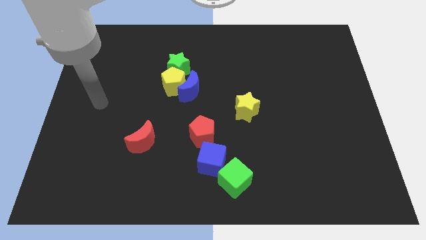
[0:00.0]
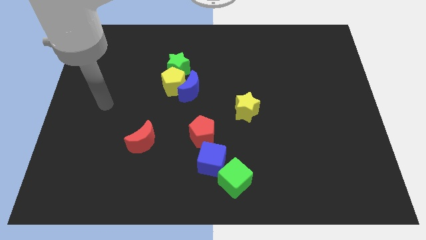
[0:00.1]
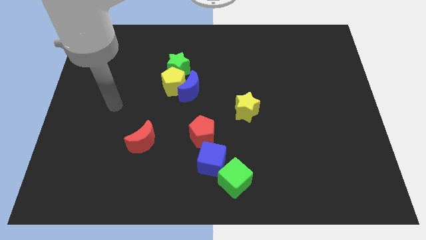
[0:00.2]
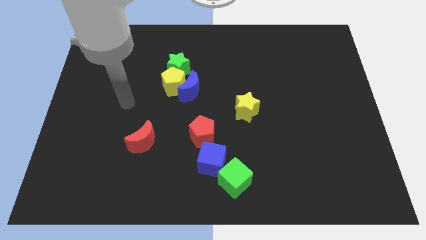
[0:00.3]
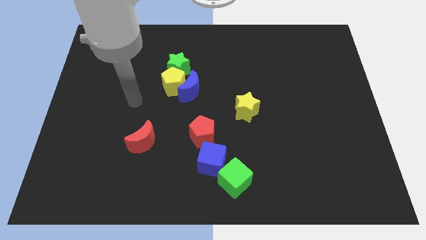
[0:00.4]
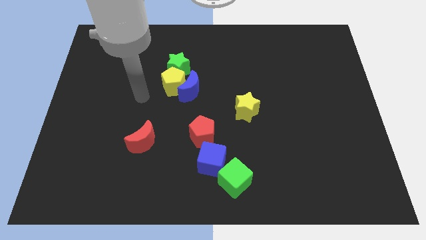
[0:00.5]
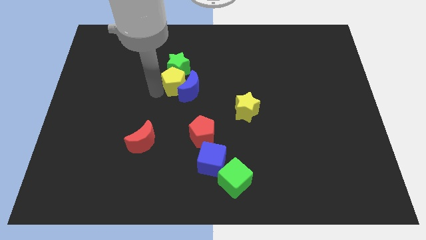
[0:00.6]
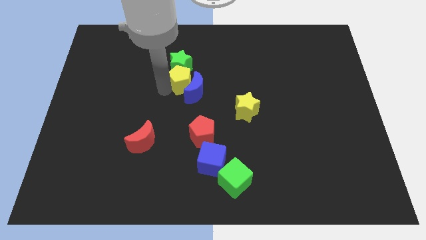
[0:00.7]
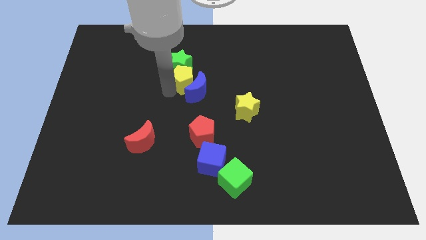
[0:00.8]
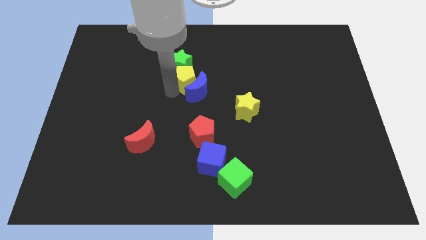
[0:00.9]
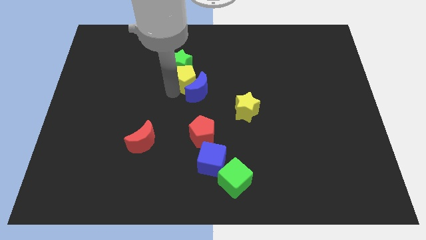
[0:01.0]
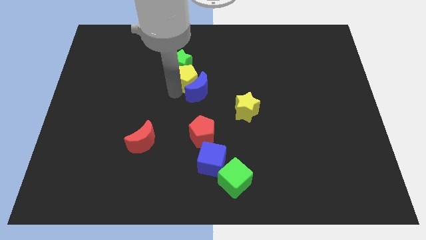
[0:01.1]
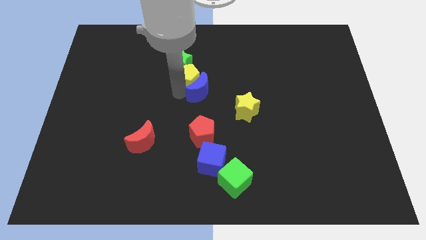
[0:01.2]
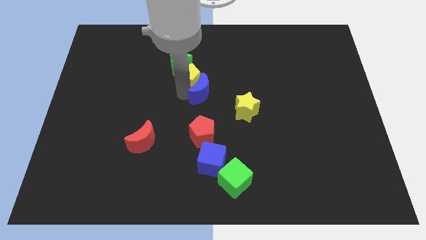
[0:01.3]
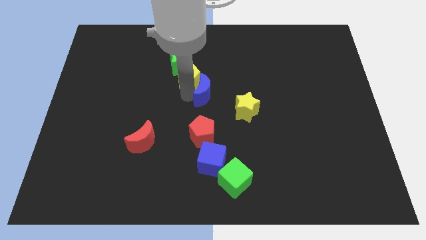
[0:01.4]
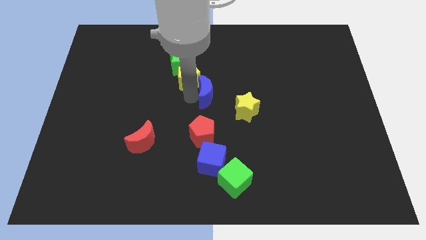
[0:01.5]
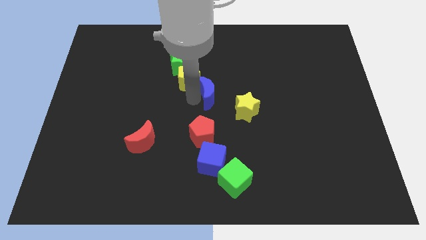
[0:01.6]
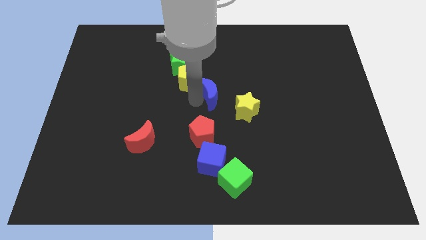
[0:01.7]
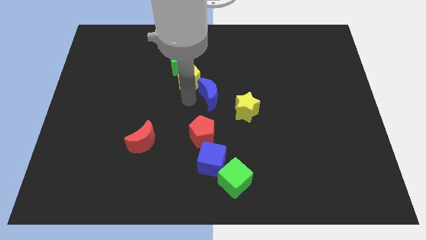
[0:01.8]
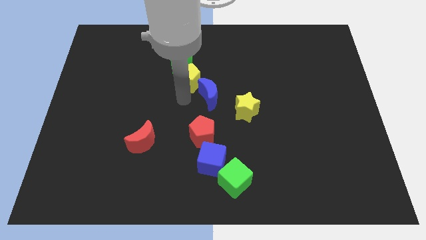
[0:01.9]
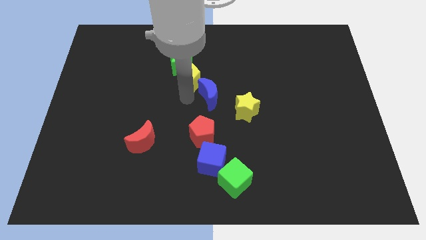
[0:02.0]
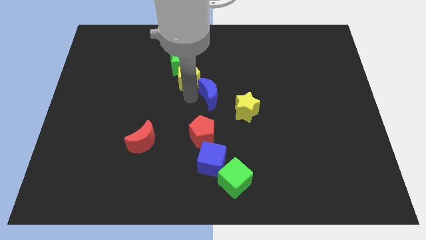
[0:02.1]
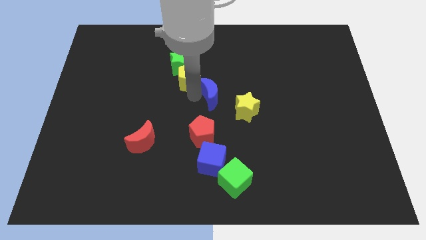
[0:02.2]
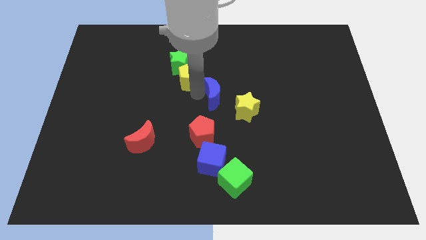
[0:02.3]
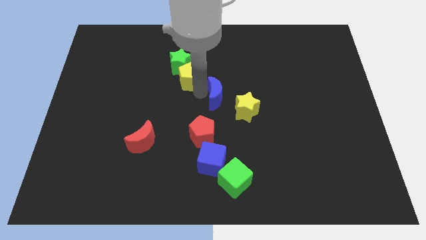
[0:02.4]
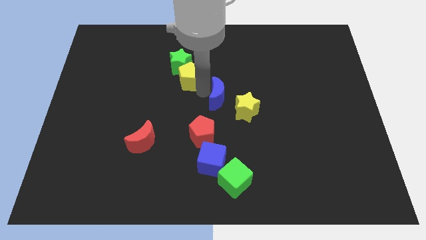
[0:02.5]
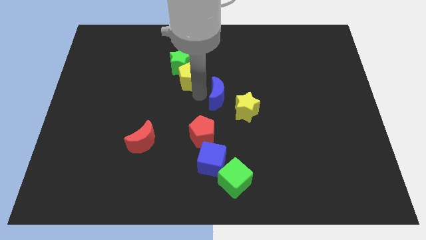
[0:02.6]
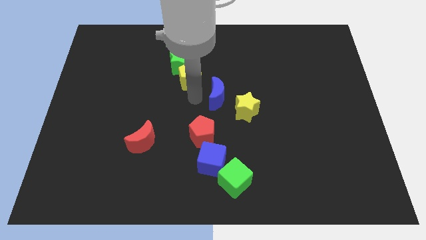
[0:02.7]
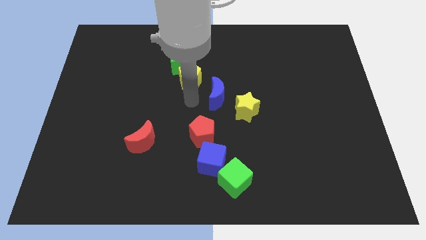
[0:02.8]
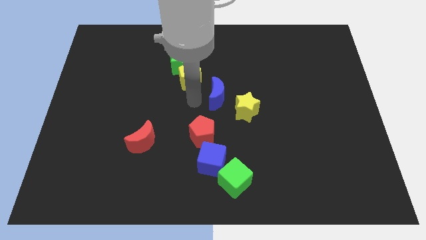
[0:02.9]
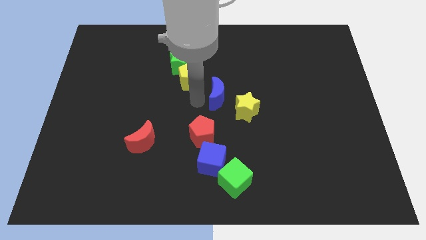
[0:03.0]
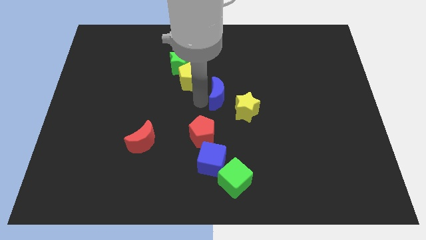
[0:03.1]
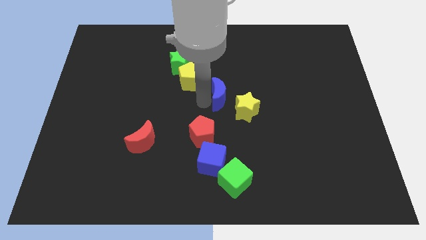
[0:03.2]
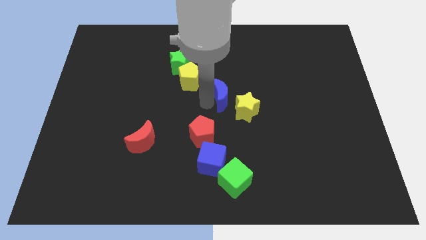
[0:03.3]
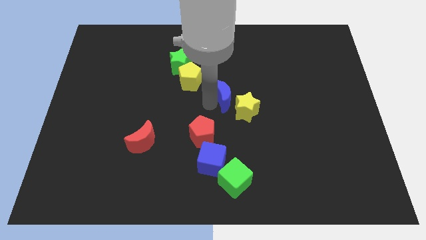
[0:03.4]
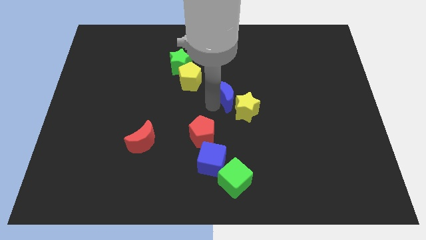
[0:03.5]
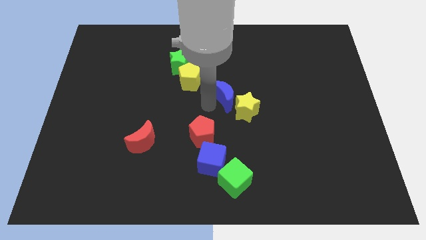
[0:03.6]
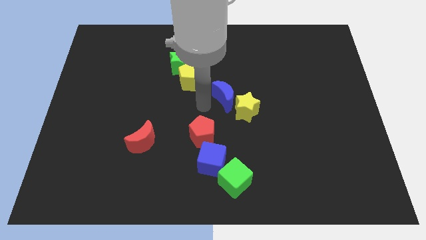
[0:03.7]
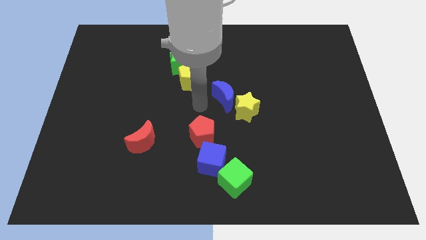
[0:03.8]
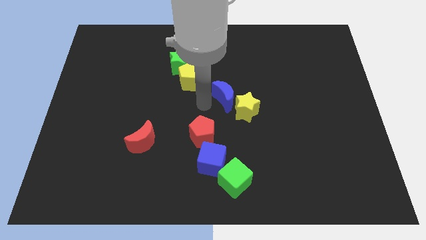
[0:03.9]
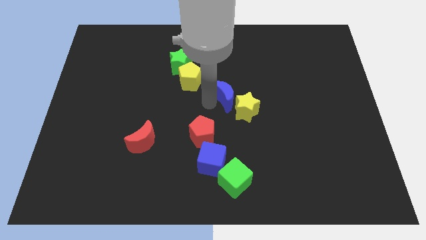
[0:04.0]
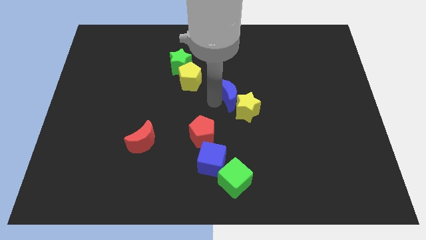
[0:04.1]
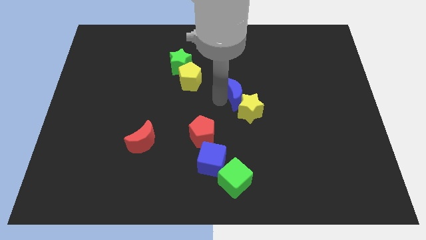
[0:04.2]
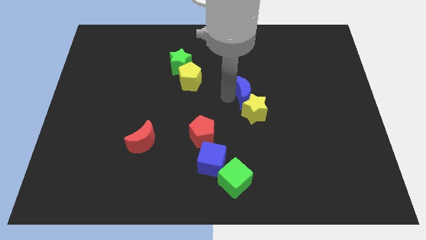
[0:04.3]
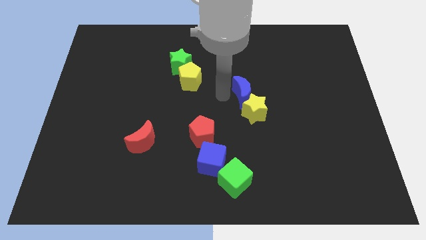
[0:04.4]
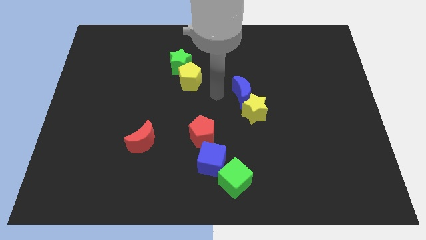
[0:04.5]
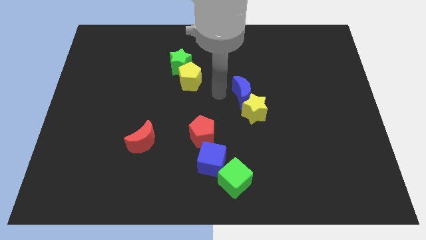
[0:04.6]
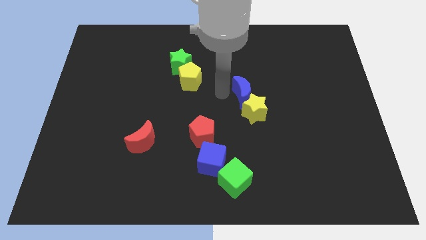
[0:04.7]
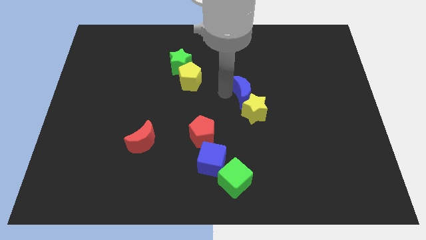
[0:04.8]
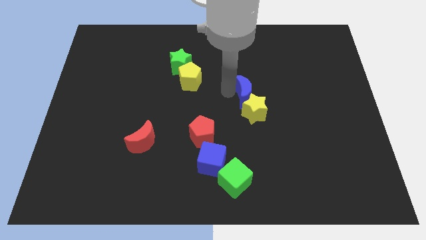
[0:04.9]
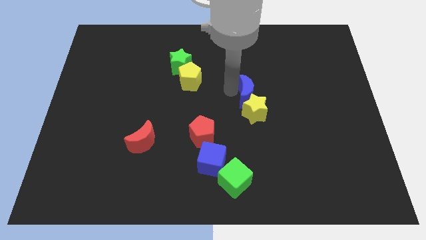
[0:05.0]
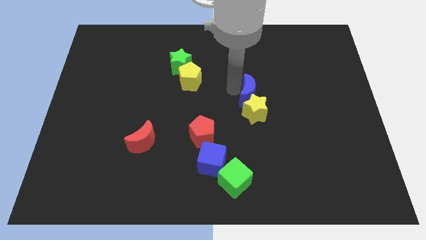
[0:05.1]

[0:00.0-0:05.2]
put the blue moon to the top right side of the yellow star

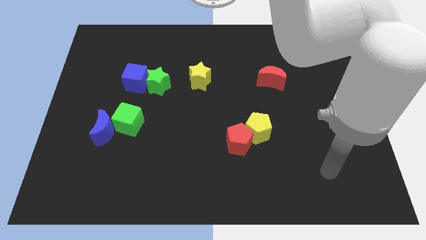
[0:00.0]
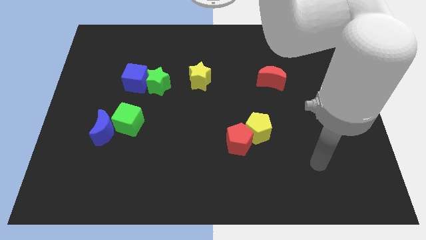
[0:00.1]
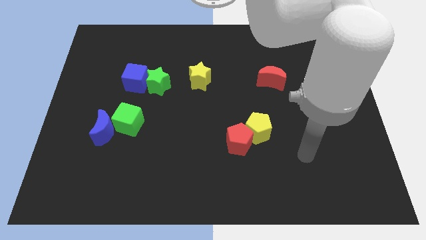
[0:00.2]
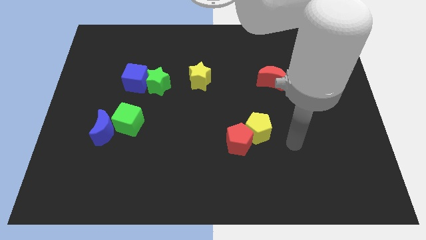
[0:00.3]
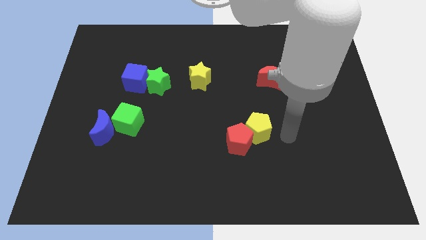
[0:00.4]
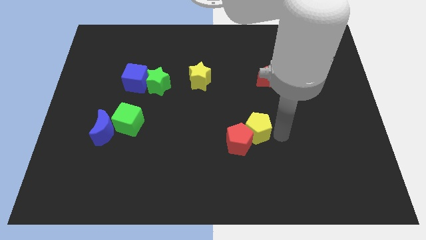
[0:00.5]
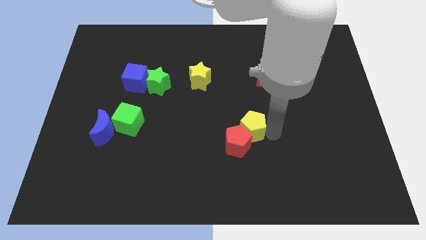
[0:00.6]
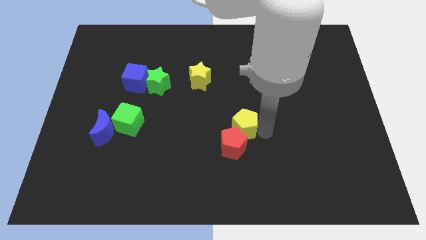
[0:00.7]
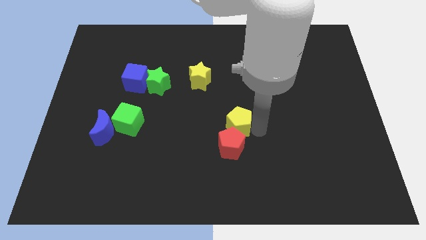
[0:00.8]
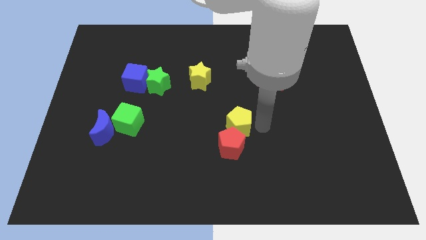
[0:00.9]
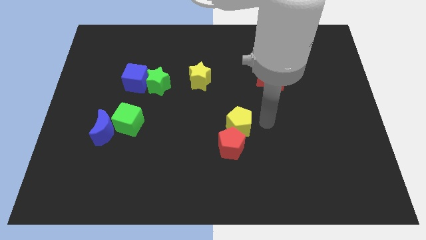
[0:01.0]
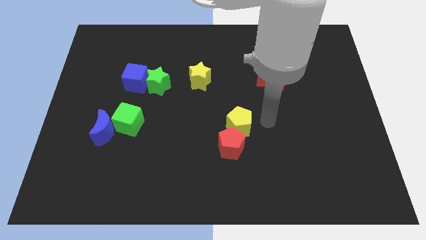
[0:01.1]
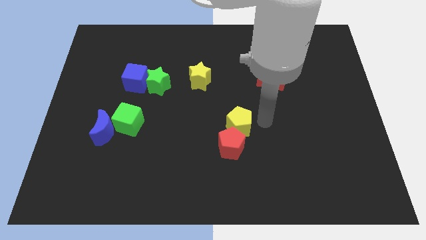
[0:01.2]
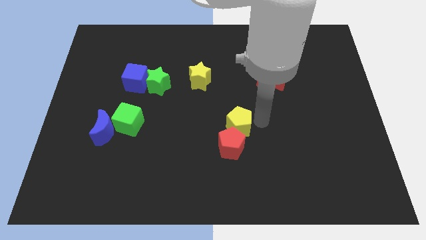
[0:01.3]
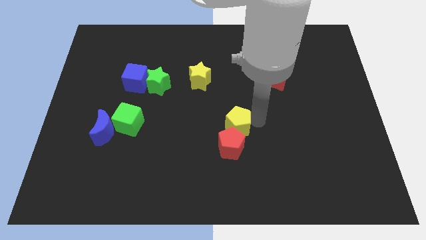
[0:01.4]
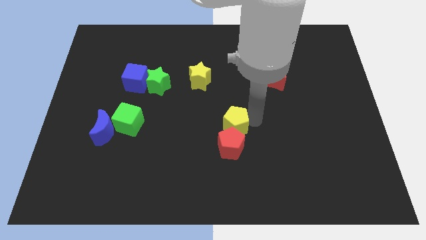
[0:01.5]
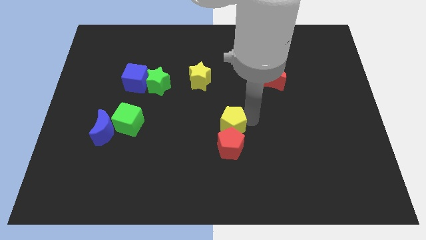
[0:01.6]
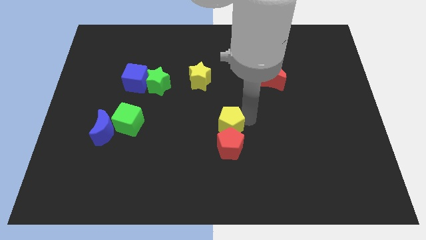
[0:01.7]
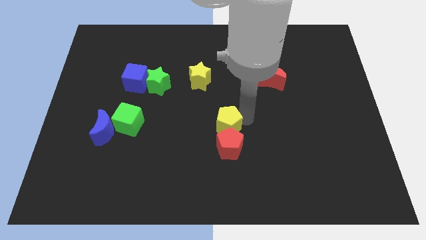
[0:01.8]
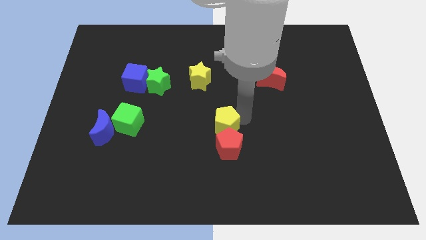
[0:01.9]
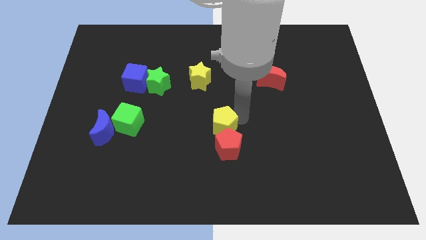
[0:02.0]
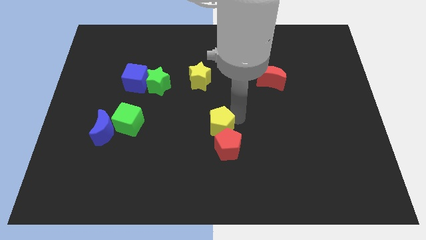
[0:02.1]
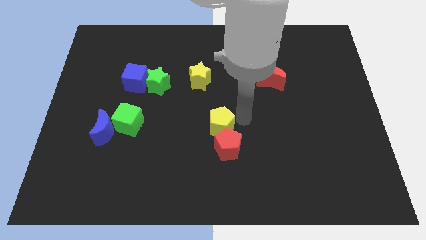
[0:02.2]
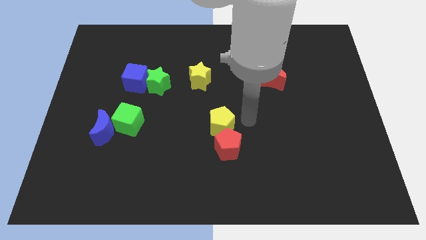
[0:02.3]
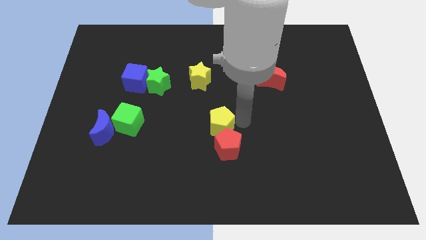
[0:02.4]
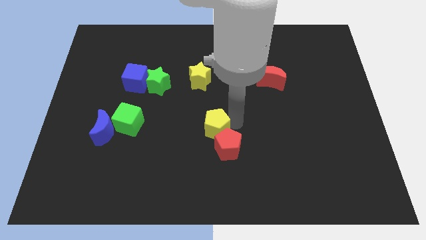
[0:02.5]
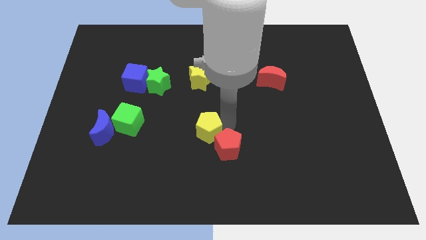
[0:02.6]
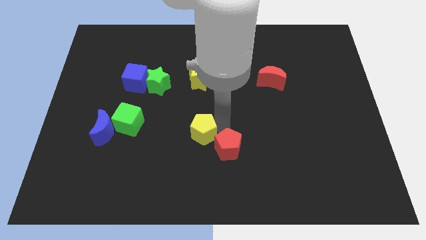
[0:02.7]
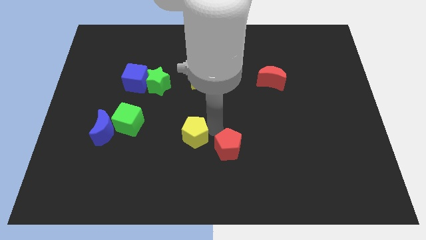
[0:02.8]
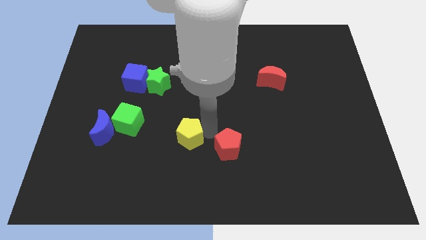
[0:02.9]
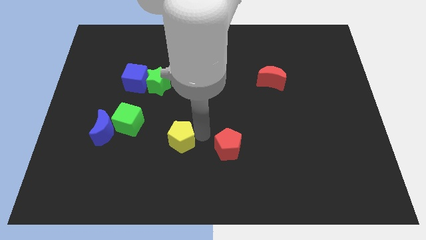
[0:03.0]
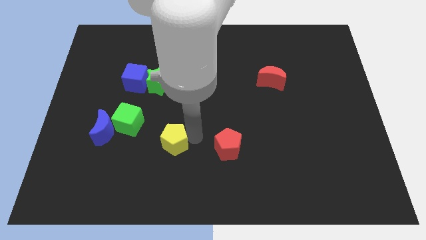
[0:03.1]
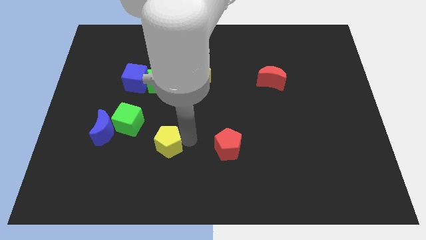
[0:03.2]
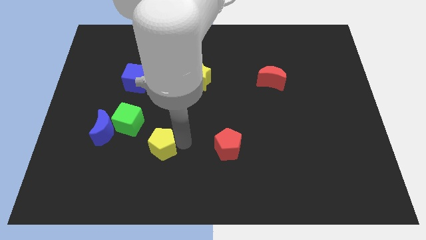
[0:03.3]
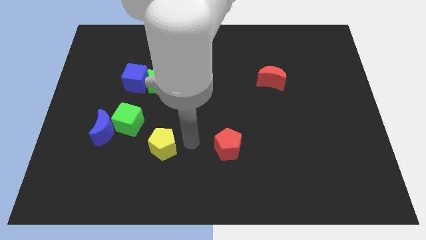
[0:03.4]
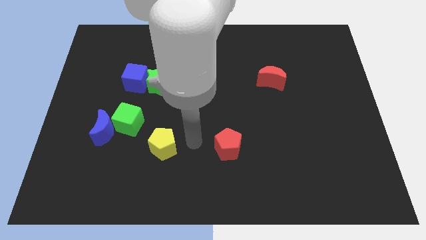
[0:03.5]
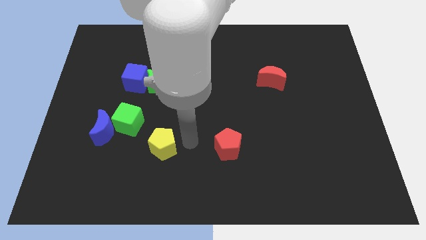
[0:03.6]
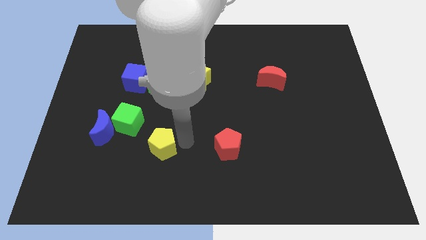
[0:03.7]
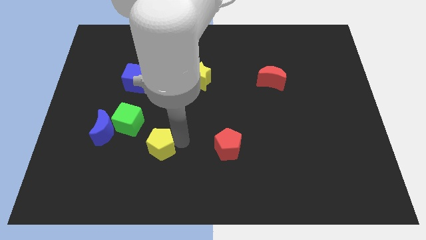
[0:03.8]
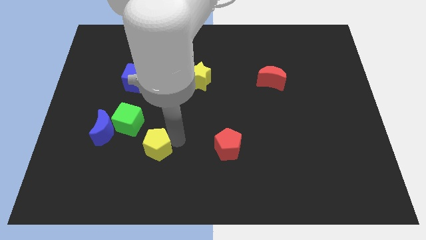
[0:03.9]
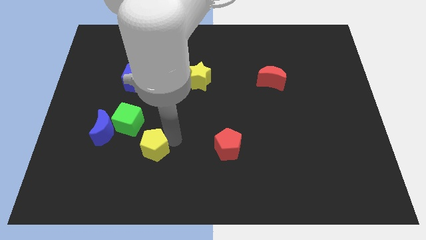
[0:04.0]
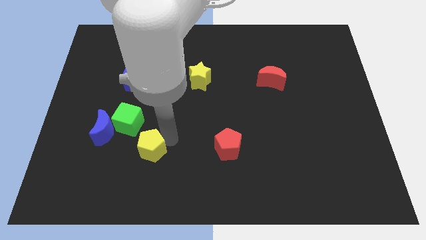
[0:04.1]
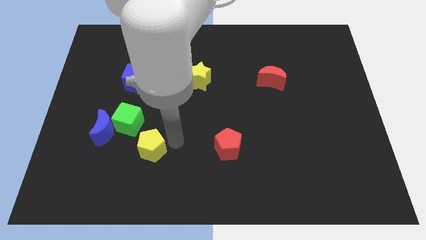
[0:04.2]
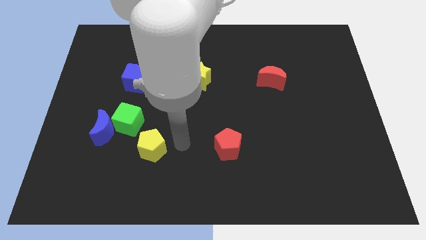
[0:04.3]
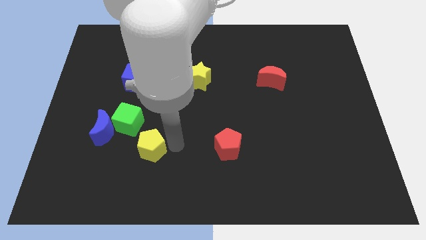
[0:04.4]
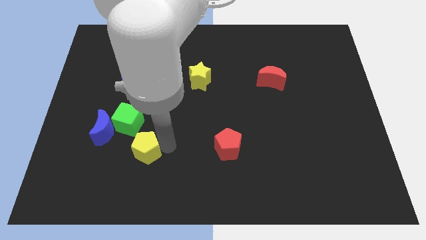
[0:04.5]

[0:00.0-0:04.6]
move the yellow pentagon to the bottom right of the blue moon
